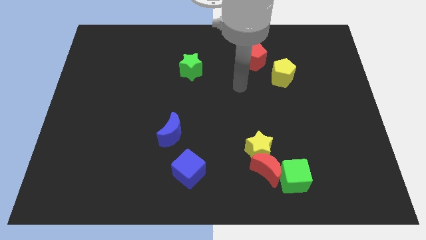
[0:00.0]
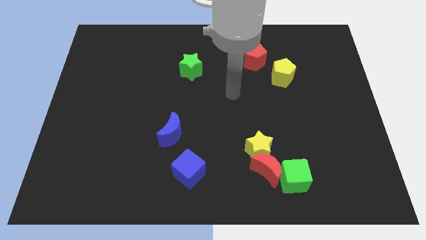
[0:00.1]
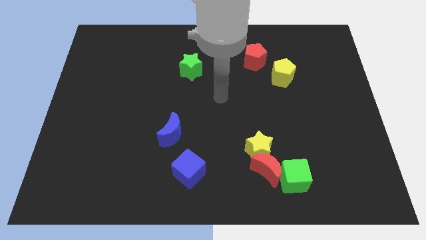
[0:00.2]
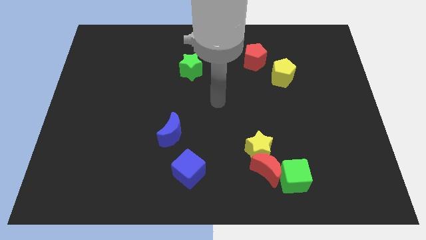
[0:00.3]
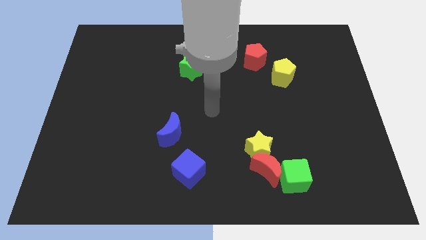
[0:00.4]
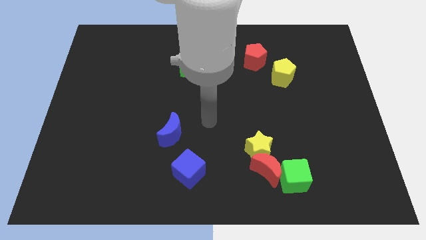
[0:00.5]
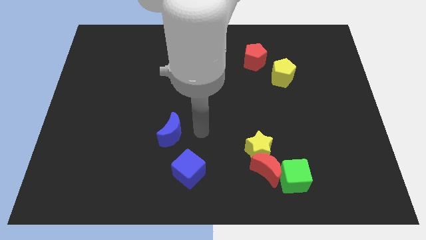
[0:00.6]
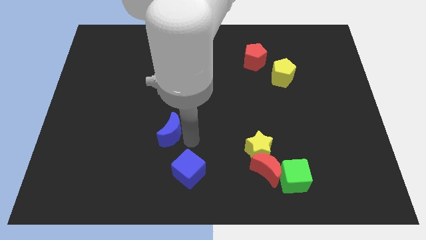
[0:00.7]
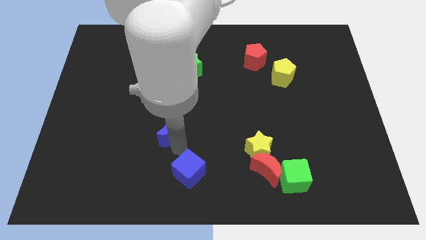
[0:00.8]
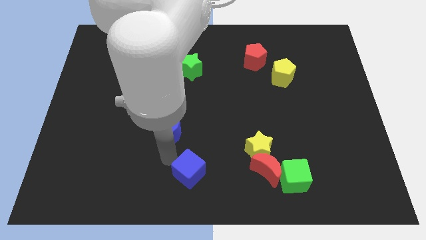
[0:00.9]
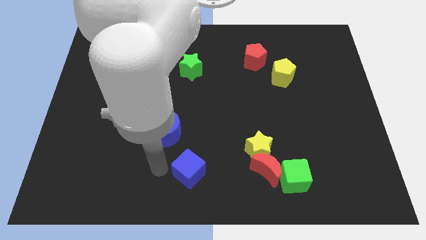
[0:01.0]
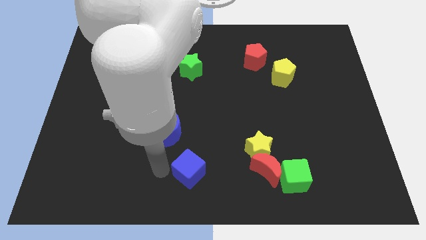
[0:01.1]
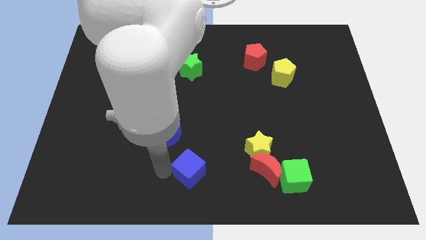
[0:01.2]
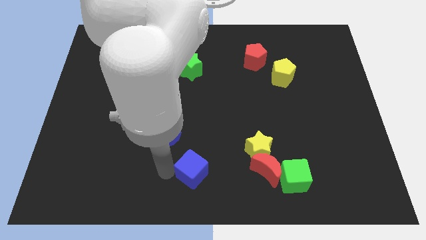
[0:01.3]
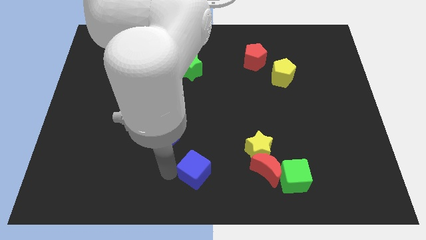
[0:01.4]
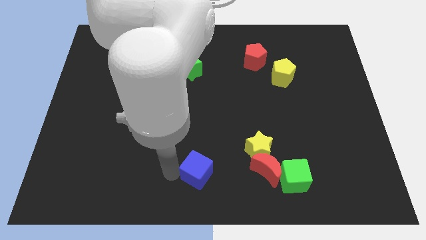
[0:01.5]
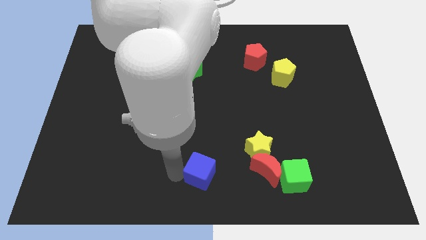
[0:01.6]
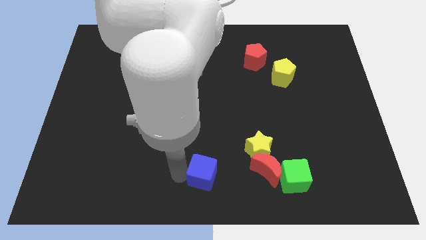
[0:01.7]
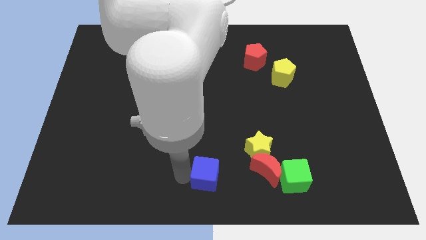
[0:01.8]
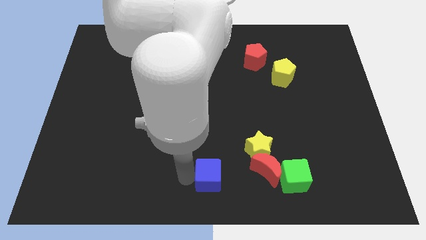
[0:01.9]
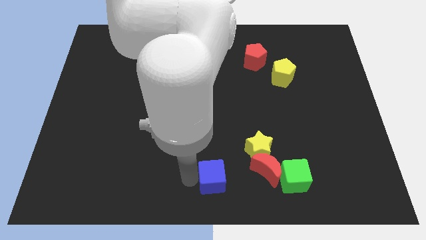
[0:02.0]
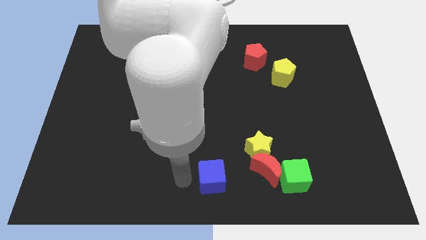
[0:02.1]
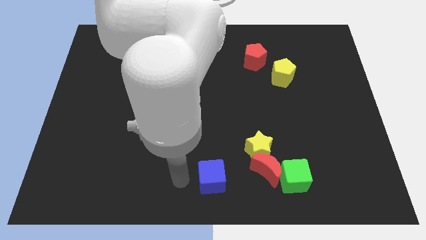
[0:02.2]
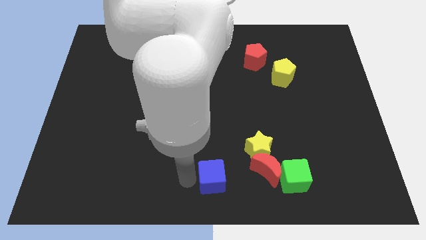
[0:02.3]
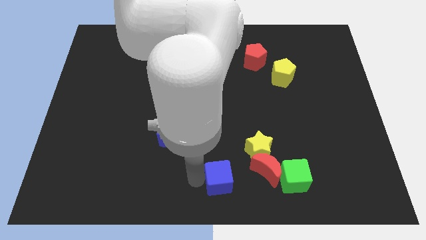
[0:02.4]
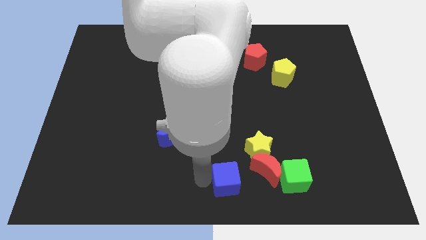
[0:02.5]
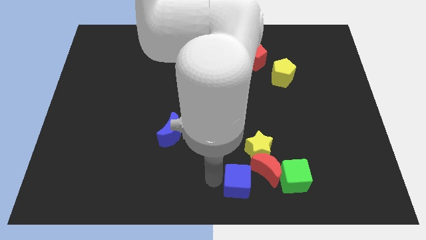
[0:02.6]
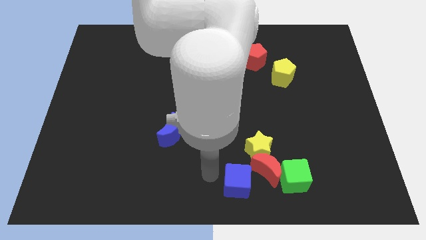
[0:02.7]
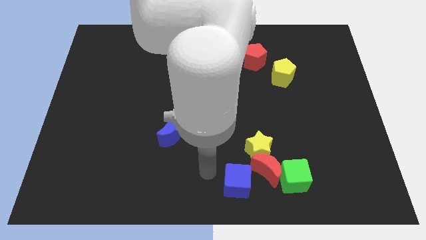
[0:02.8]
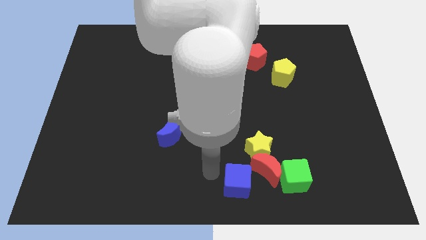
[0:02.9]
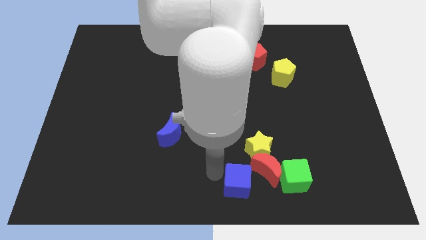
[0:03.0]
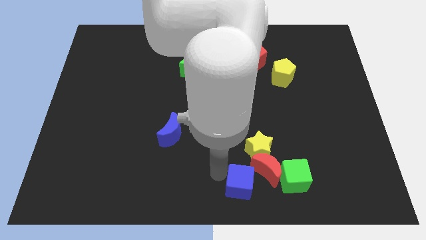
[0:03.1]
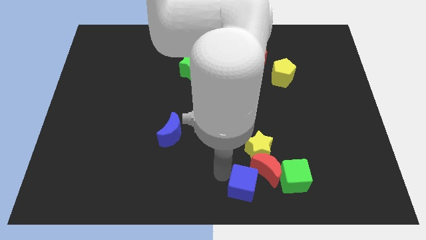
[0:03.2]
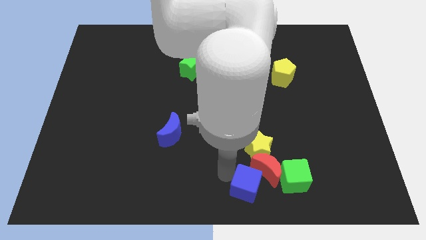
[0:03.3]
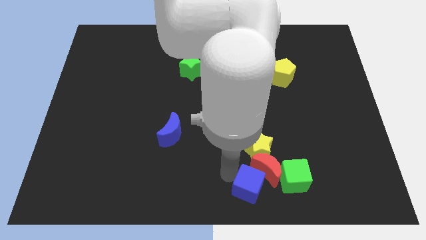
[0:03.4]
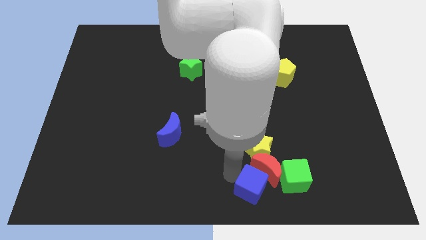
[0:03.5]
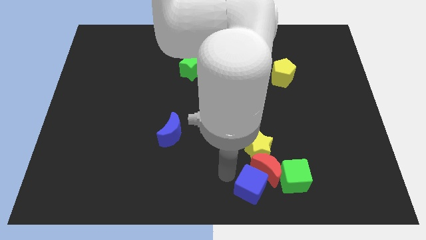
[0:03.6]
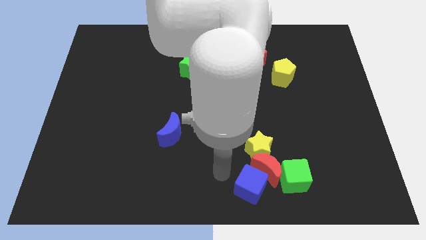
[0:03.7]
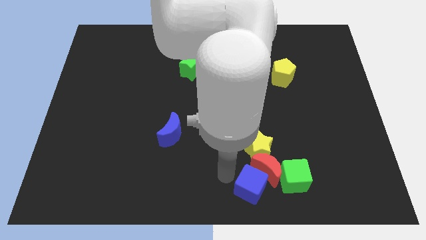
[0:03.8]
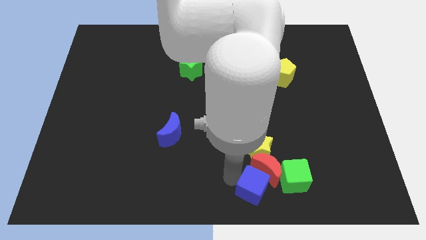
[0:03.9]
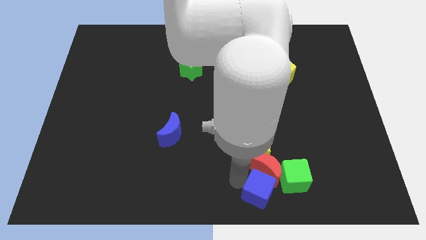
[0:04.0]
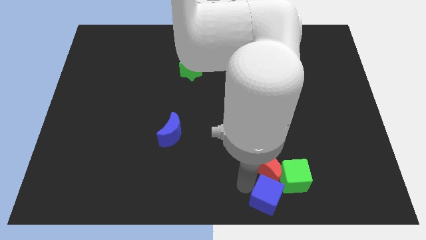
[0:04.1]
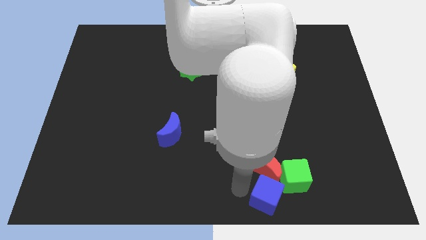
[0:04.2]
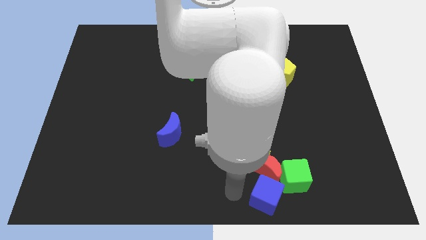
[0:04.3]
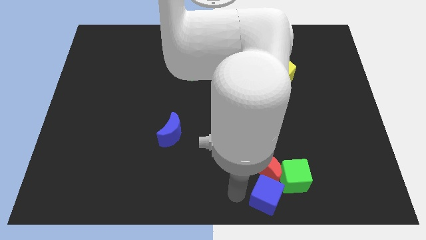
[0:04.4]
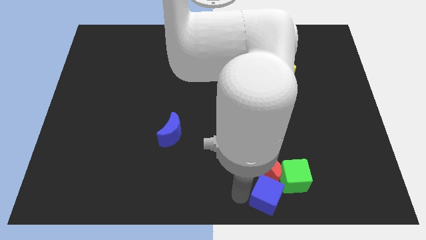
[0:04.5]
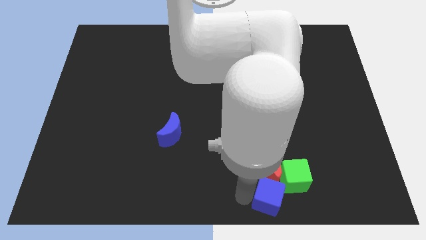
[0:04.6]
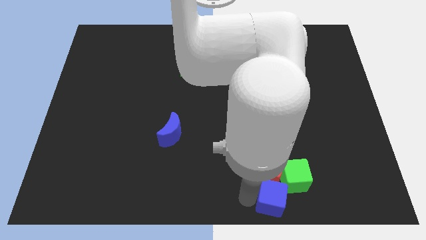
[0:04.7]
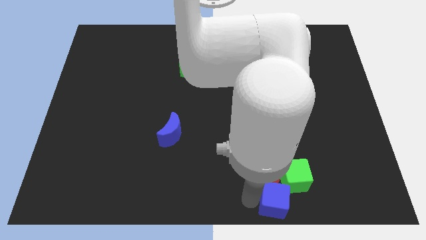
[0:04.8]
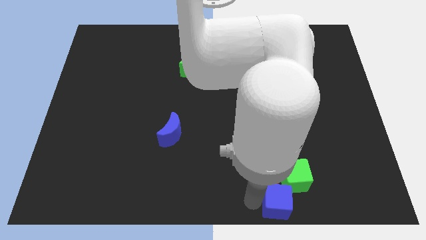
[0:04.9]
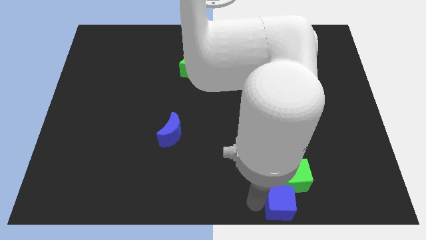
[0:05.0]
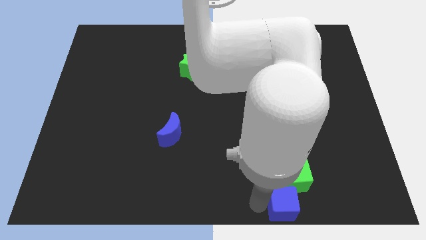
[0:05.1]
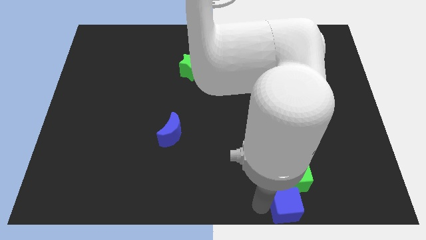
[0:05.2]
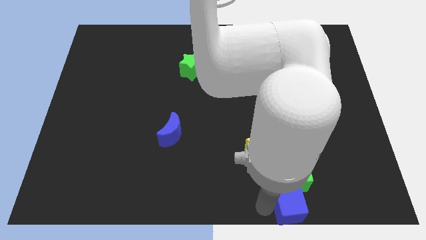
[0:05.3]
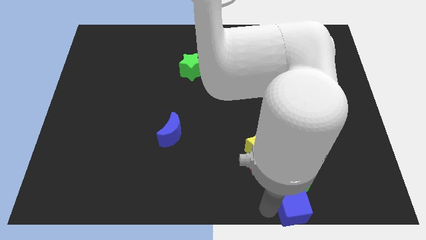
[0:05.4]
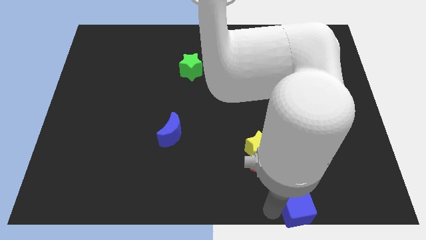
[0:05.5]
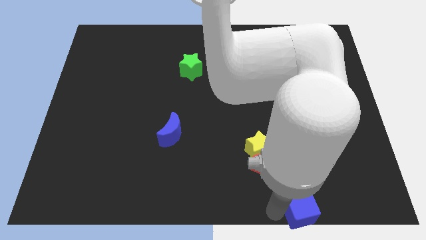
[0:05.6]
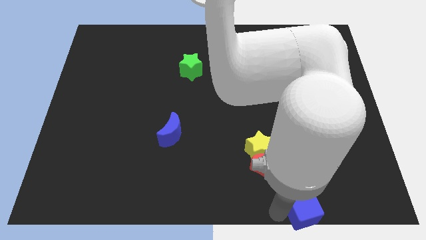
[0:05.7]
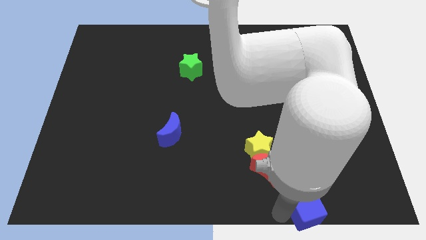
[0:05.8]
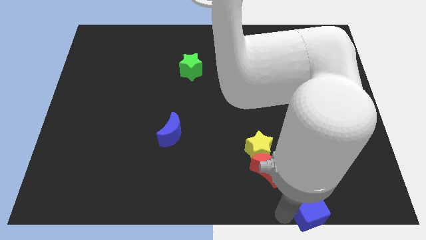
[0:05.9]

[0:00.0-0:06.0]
push the blue cube to the right

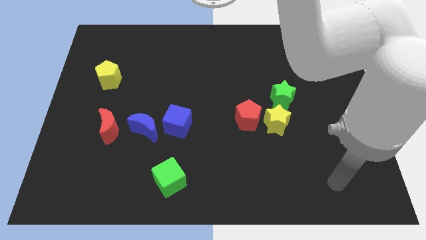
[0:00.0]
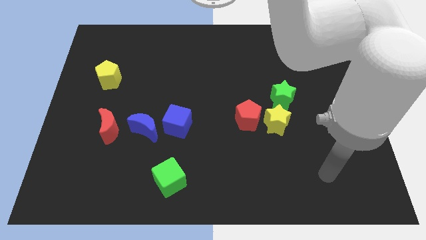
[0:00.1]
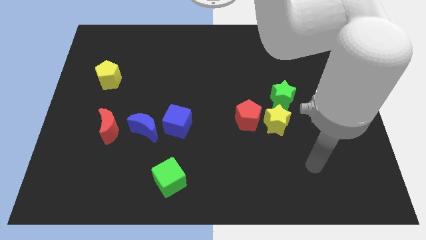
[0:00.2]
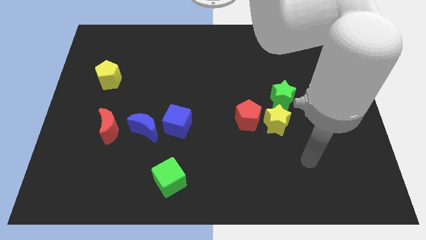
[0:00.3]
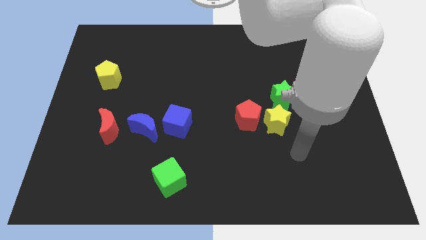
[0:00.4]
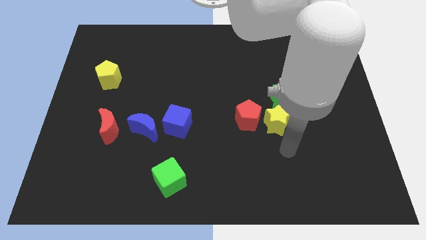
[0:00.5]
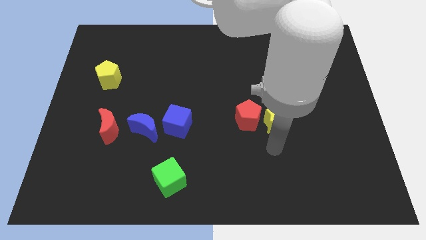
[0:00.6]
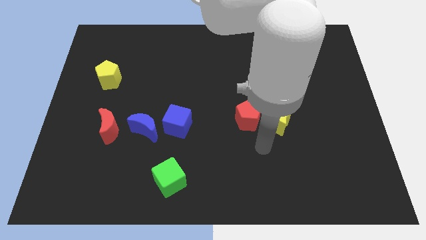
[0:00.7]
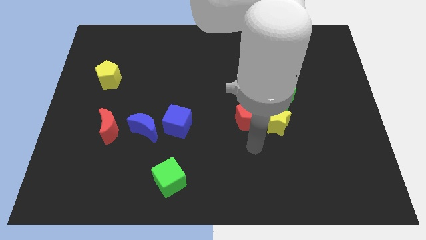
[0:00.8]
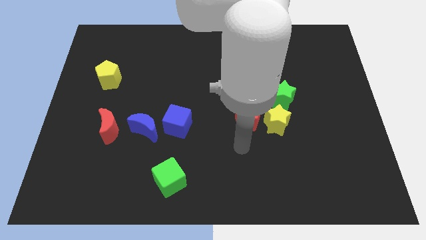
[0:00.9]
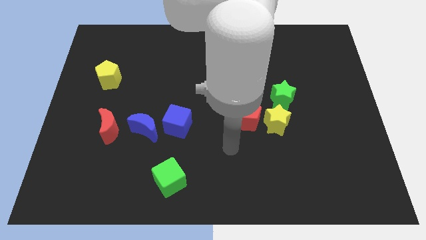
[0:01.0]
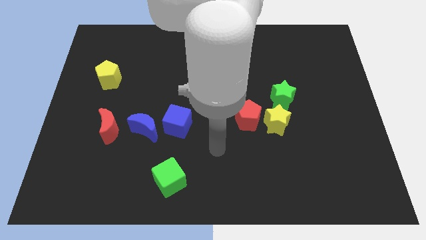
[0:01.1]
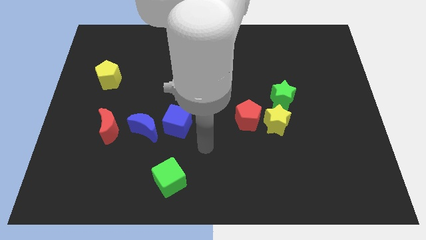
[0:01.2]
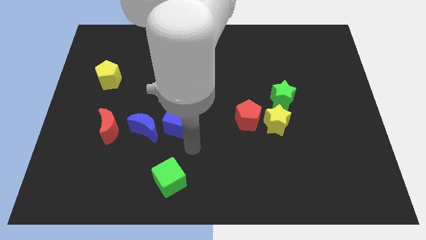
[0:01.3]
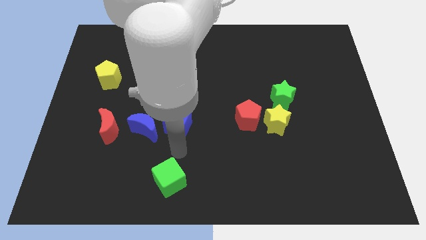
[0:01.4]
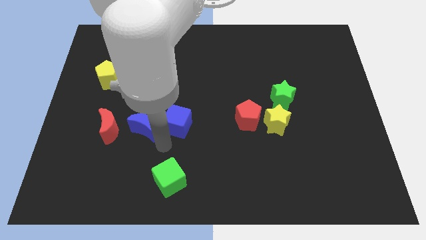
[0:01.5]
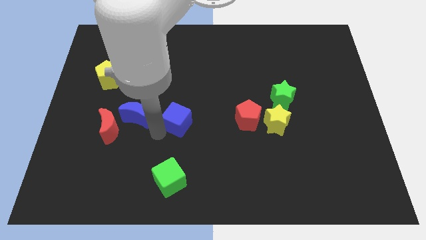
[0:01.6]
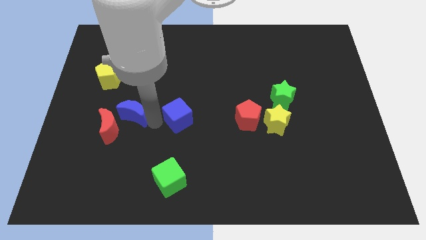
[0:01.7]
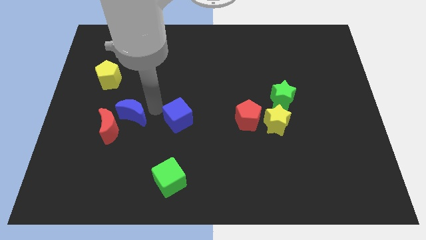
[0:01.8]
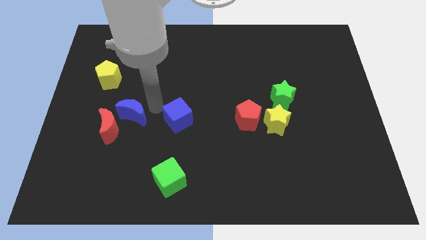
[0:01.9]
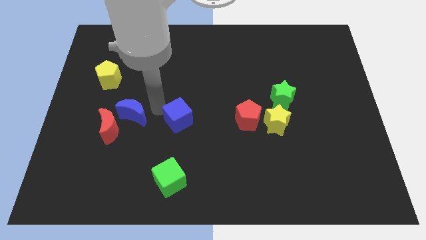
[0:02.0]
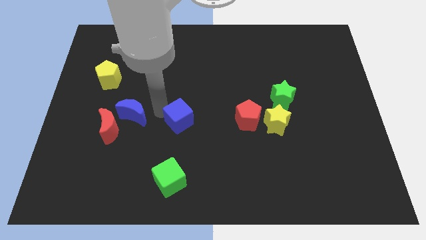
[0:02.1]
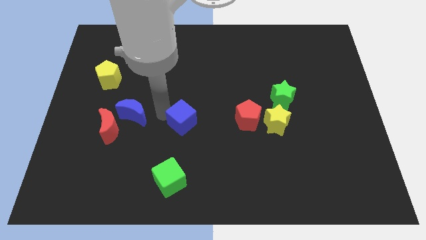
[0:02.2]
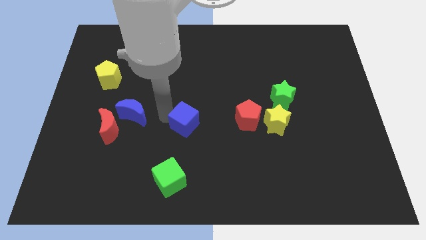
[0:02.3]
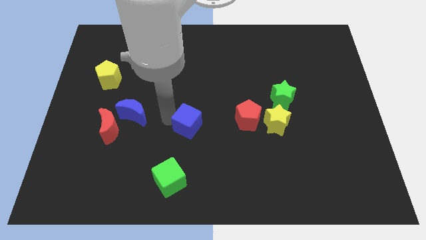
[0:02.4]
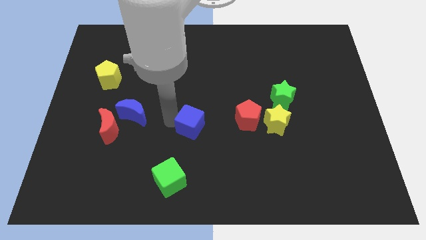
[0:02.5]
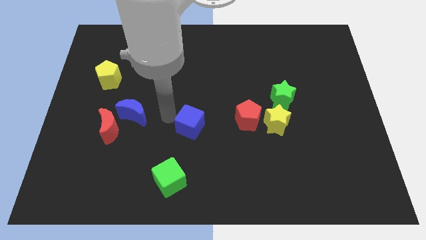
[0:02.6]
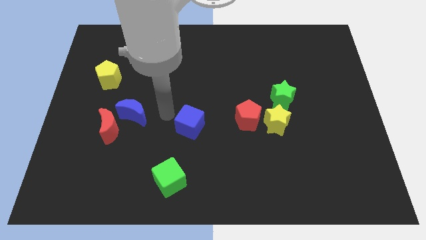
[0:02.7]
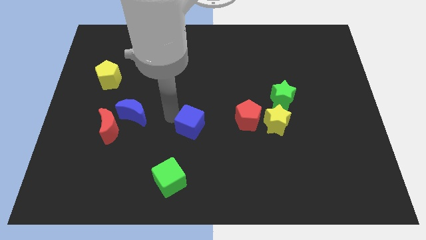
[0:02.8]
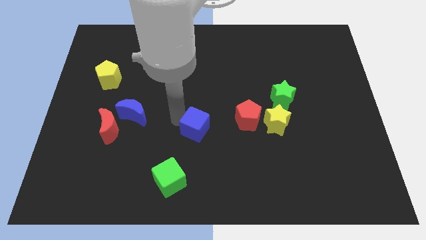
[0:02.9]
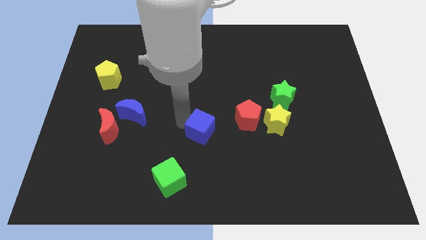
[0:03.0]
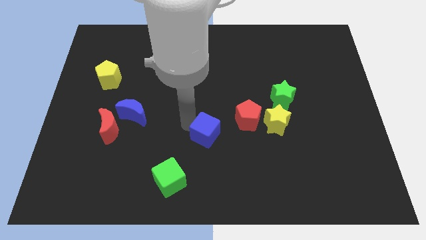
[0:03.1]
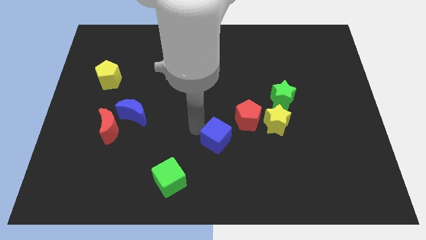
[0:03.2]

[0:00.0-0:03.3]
slide the blue cube a little downwards and to the right diagonally
